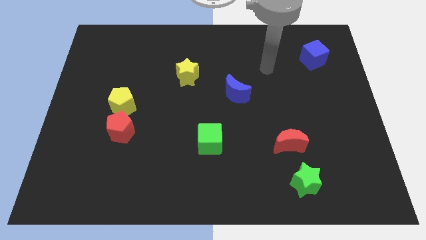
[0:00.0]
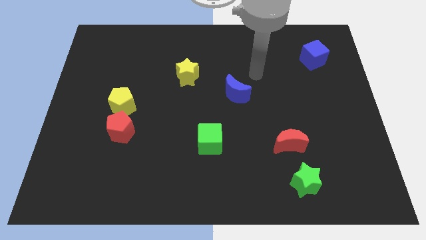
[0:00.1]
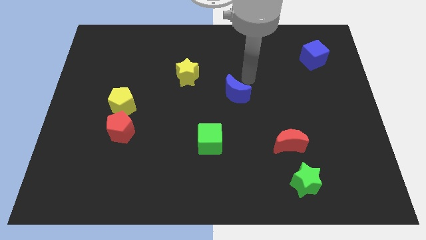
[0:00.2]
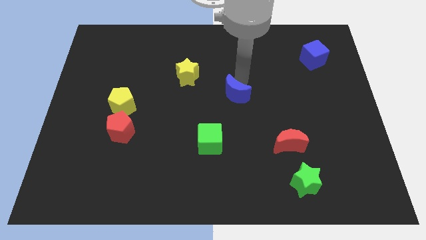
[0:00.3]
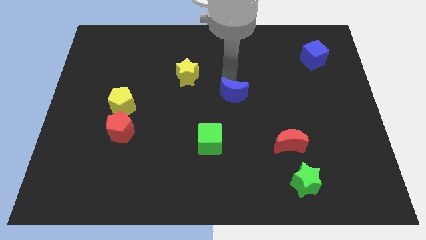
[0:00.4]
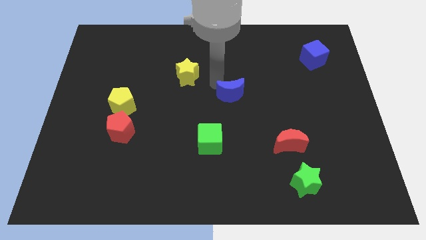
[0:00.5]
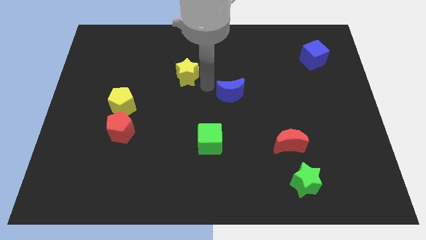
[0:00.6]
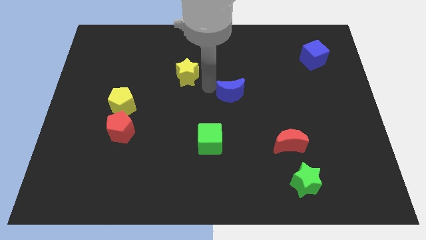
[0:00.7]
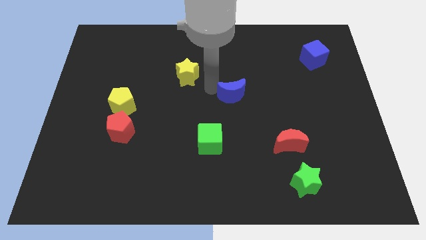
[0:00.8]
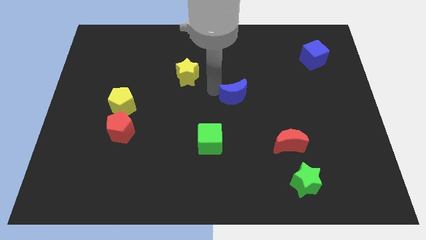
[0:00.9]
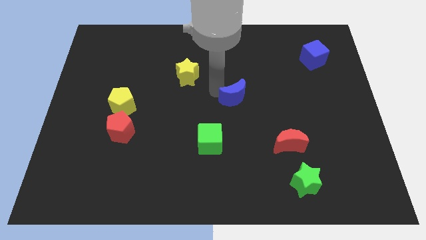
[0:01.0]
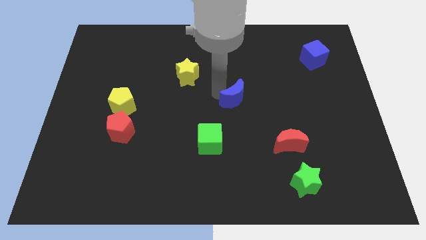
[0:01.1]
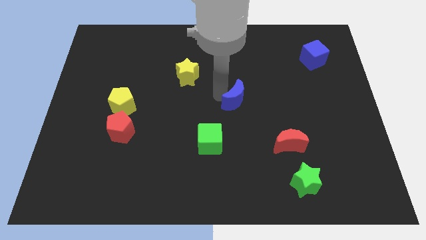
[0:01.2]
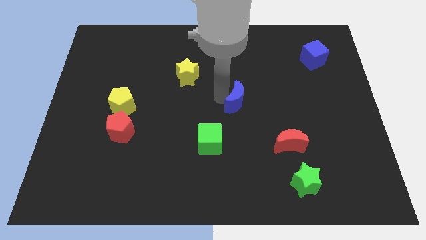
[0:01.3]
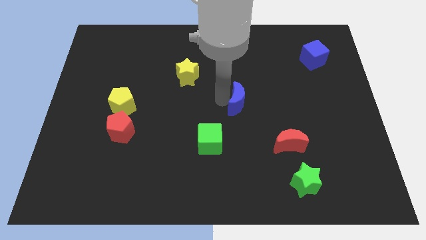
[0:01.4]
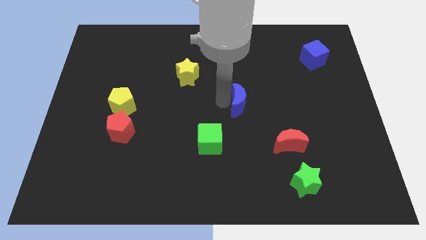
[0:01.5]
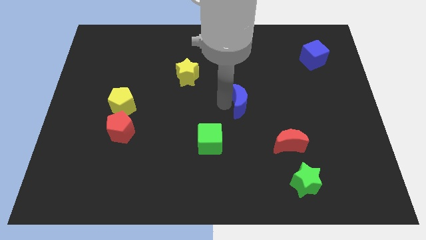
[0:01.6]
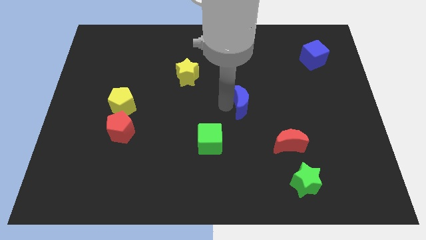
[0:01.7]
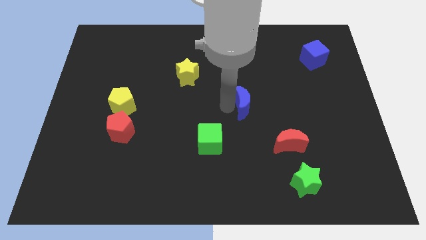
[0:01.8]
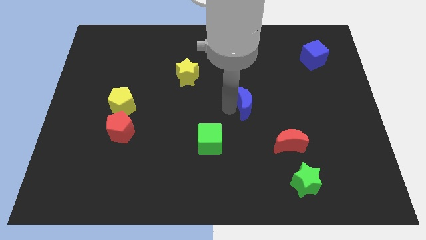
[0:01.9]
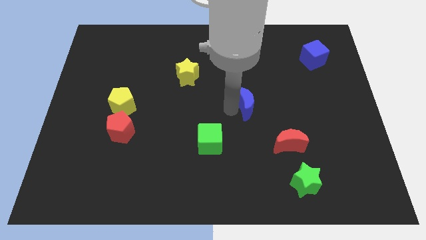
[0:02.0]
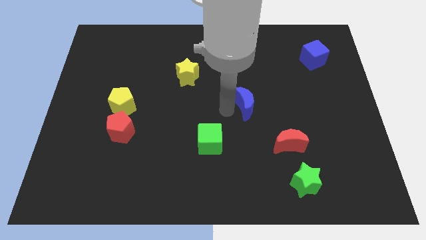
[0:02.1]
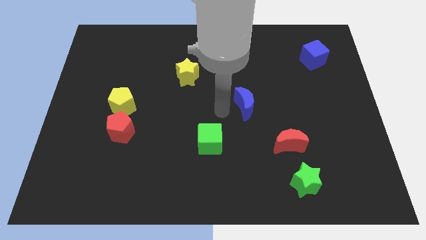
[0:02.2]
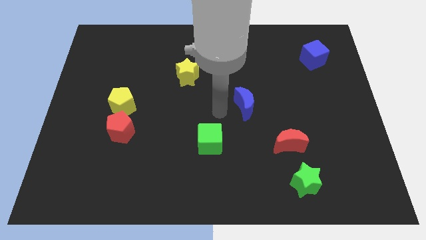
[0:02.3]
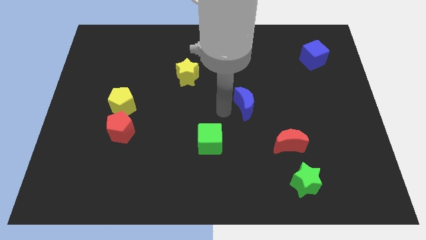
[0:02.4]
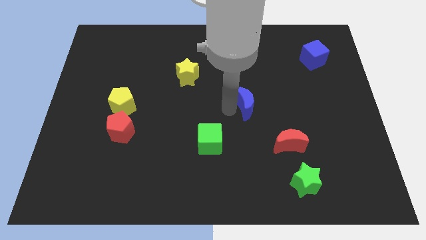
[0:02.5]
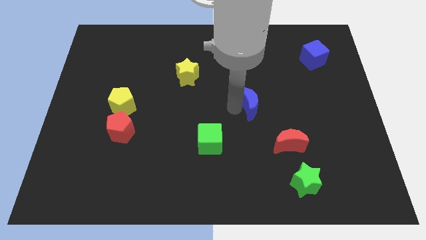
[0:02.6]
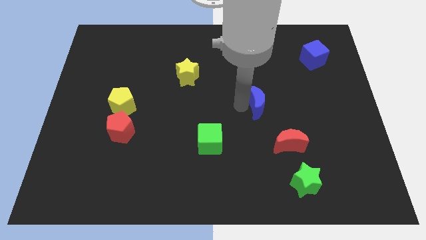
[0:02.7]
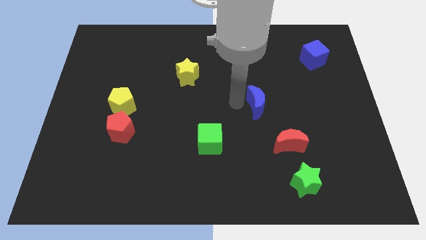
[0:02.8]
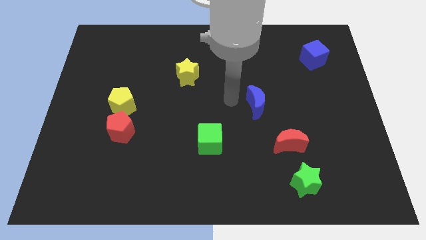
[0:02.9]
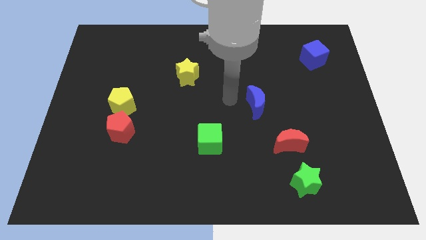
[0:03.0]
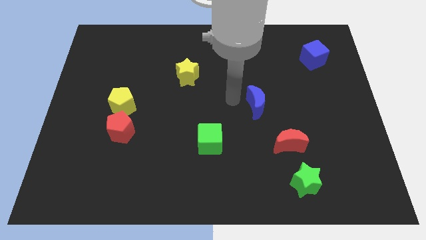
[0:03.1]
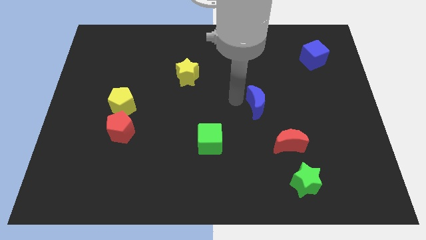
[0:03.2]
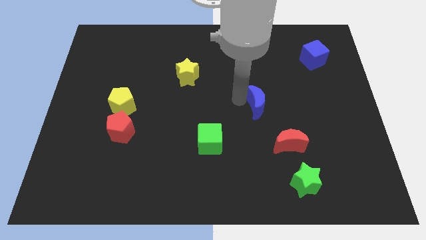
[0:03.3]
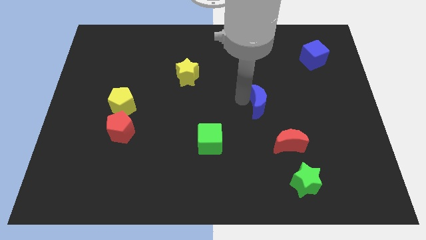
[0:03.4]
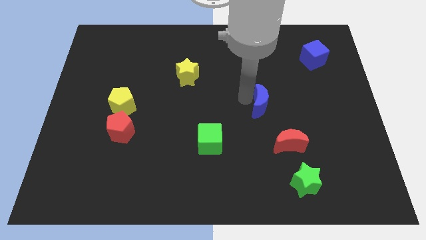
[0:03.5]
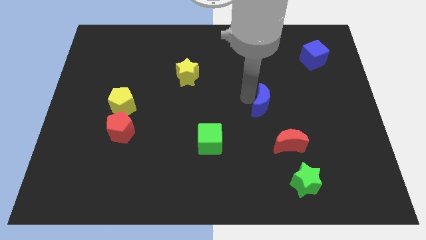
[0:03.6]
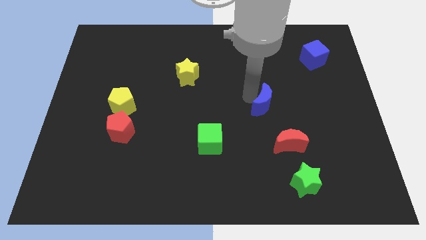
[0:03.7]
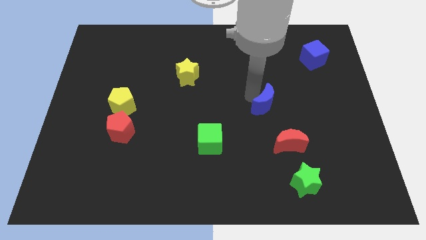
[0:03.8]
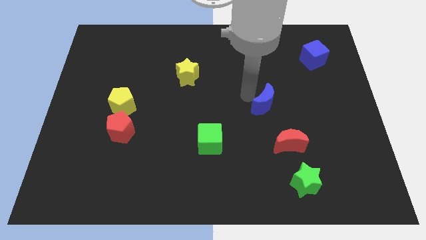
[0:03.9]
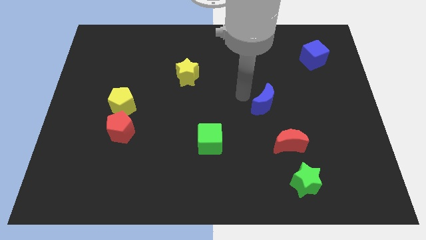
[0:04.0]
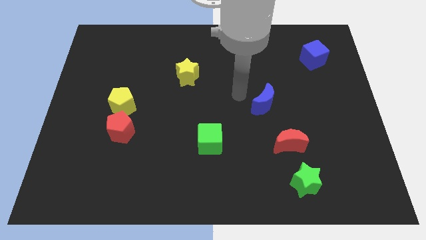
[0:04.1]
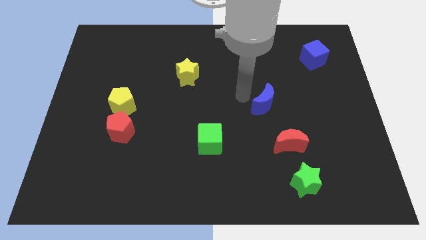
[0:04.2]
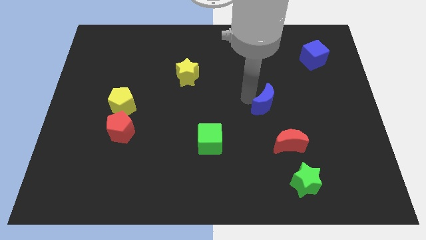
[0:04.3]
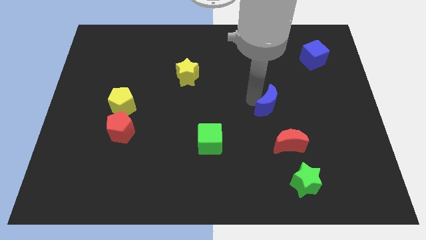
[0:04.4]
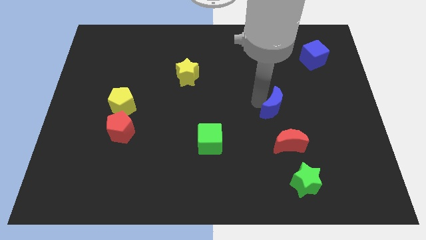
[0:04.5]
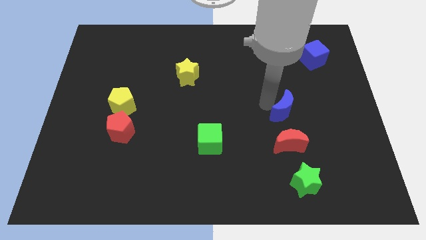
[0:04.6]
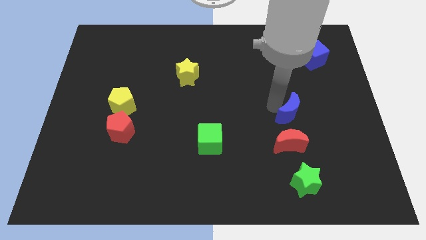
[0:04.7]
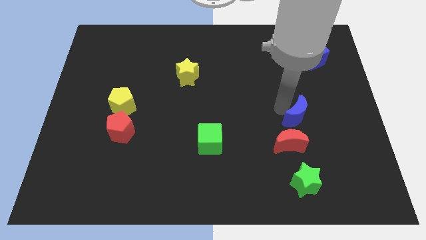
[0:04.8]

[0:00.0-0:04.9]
slide the blue moon to the top right of the red moon

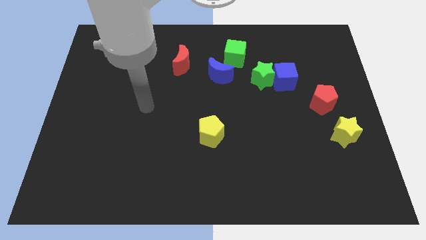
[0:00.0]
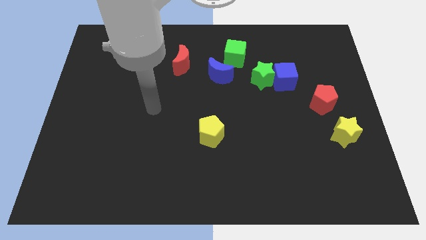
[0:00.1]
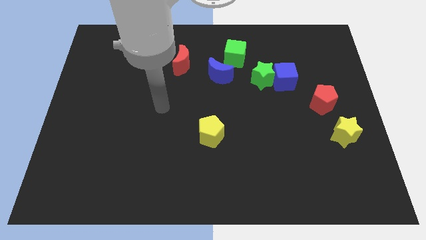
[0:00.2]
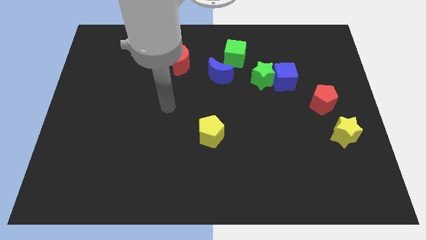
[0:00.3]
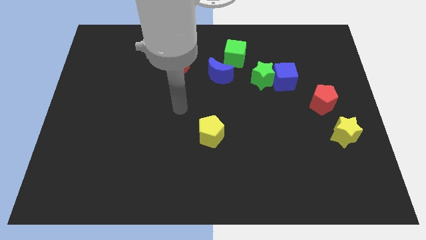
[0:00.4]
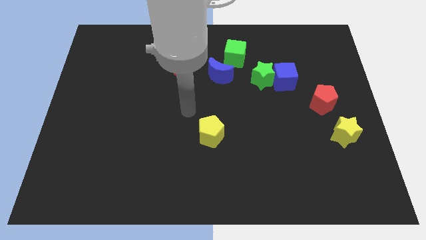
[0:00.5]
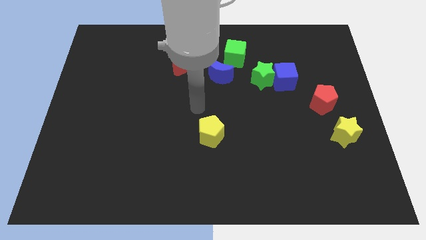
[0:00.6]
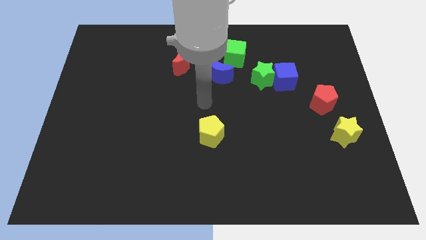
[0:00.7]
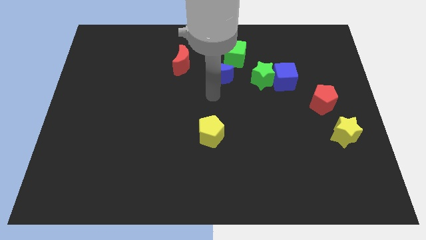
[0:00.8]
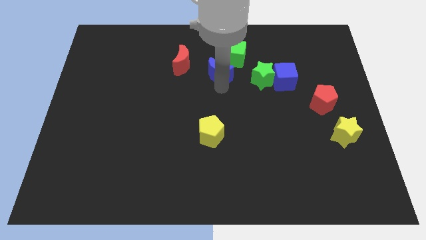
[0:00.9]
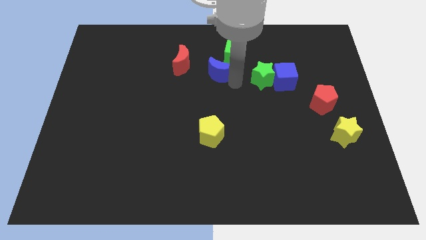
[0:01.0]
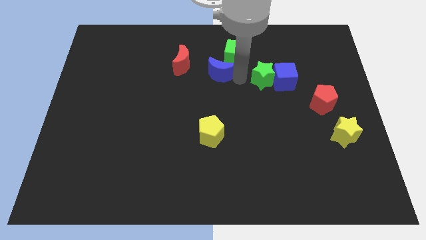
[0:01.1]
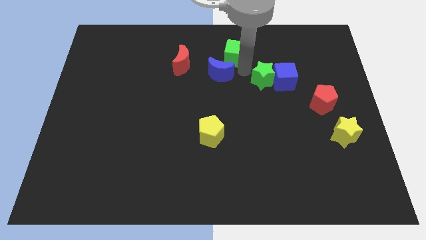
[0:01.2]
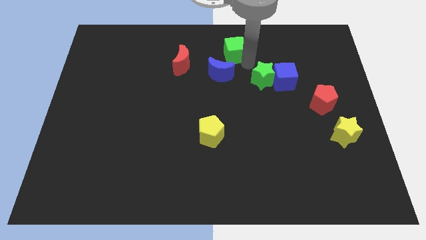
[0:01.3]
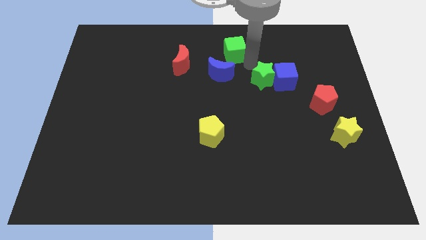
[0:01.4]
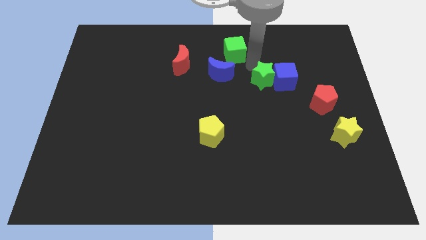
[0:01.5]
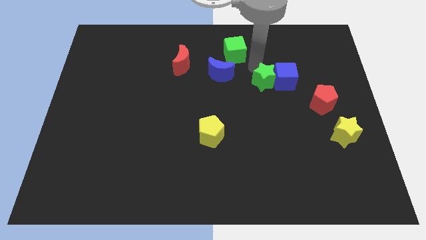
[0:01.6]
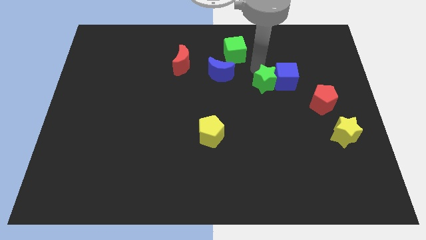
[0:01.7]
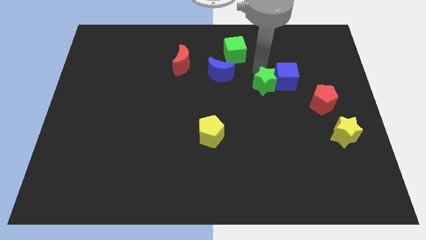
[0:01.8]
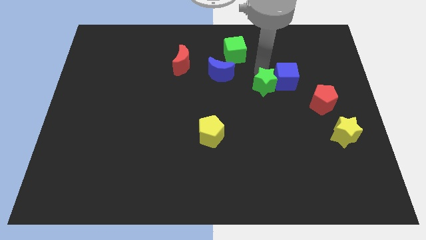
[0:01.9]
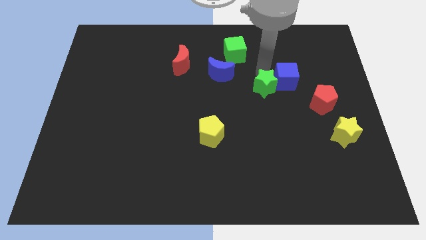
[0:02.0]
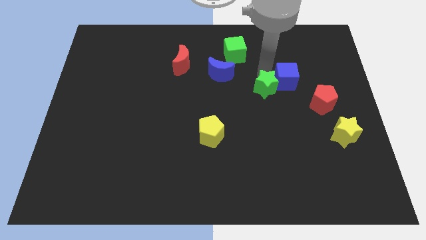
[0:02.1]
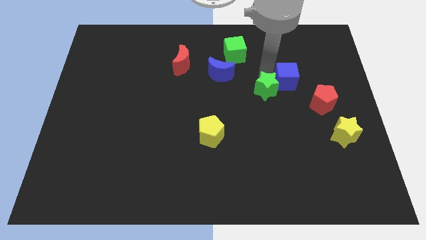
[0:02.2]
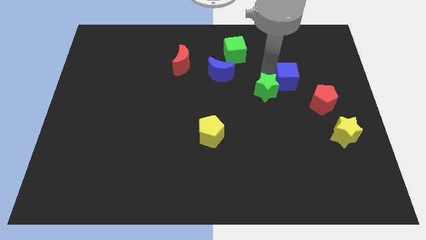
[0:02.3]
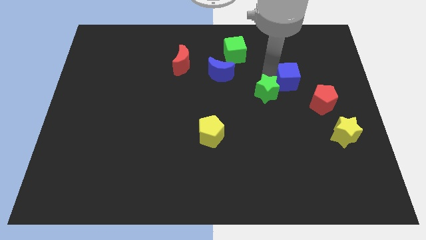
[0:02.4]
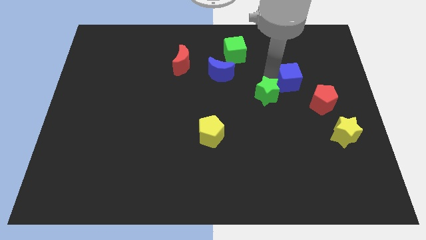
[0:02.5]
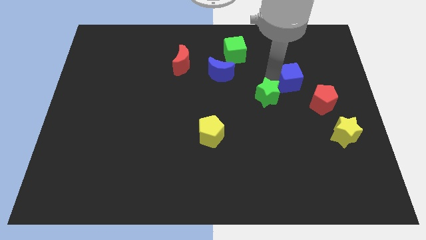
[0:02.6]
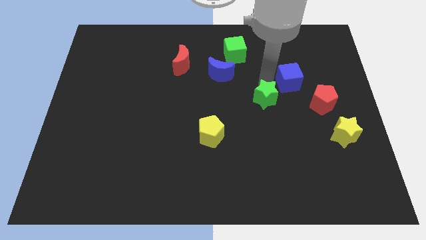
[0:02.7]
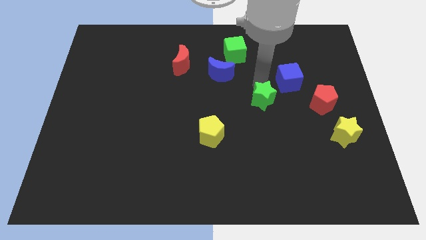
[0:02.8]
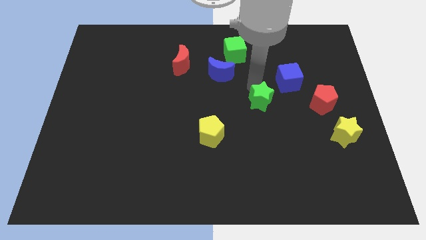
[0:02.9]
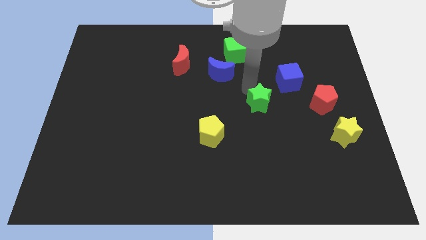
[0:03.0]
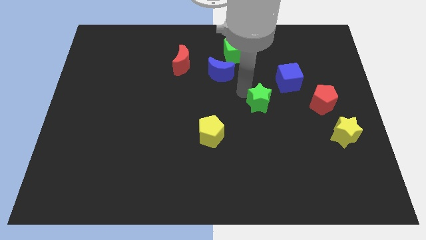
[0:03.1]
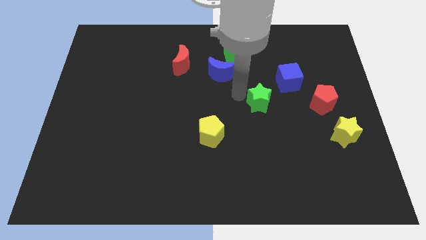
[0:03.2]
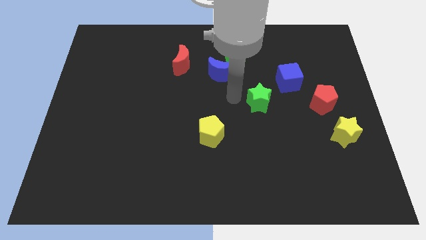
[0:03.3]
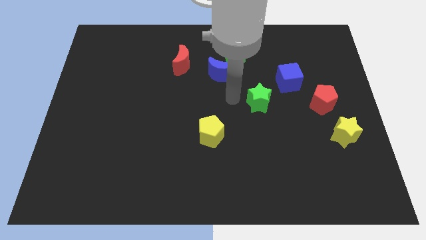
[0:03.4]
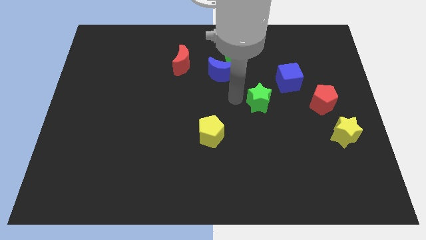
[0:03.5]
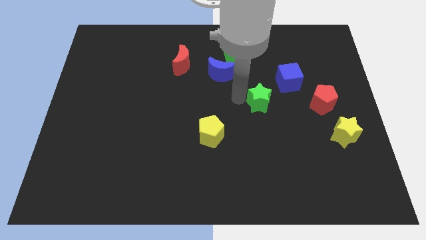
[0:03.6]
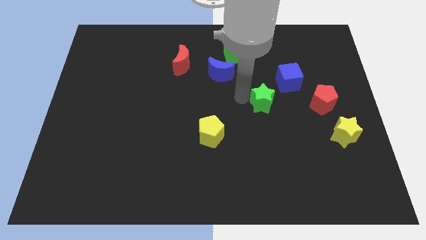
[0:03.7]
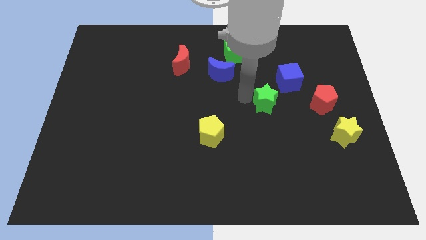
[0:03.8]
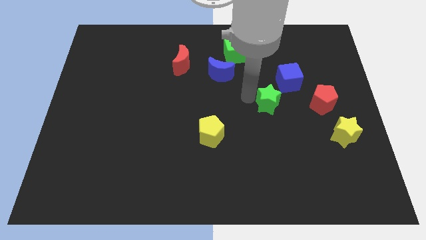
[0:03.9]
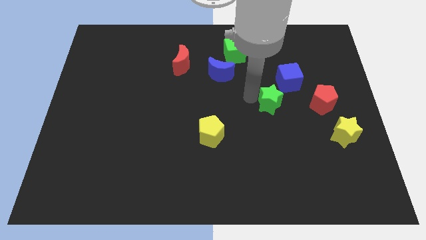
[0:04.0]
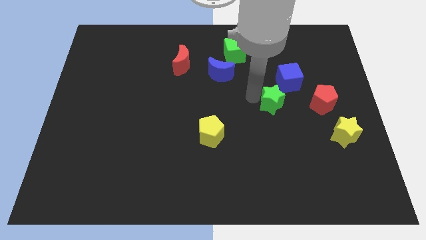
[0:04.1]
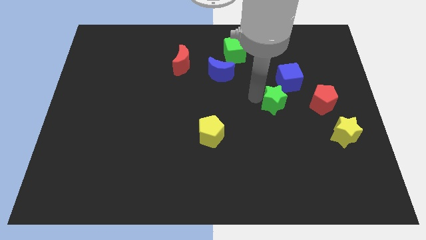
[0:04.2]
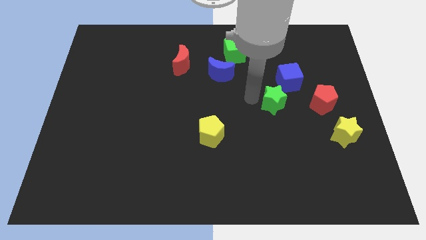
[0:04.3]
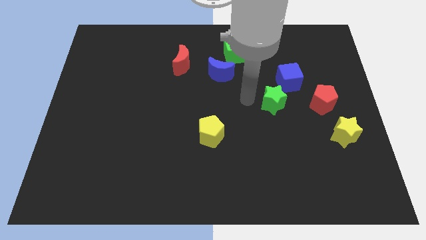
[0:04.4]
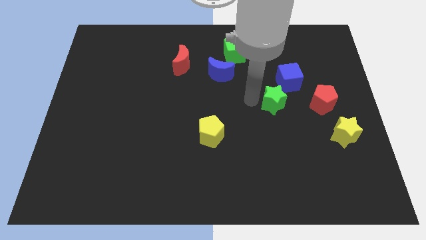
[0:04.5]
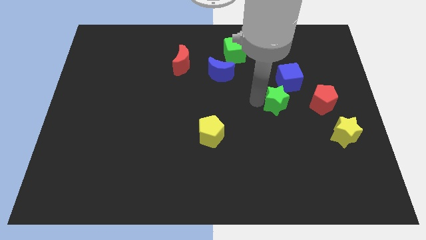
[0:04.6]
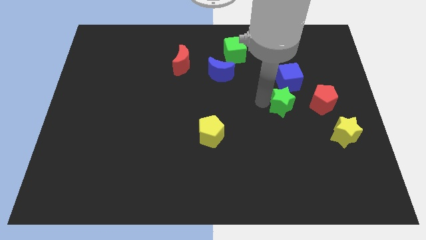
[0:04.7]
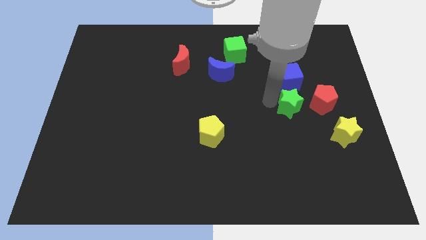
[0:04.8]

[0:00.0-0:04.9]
put the green star to the bottom left side of the red pentagon
